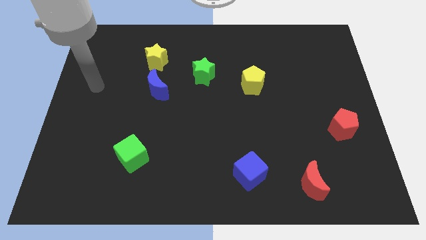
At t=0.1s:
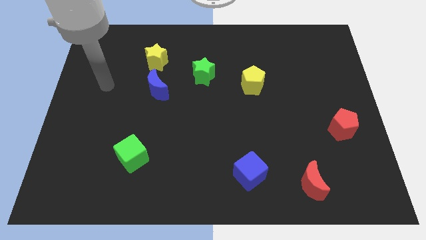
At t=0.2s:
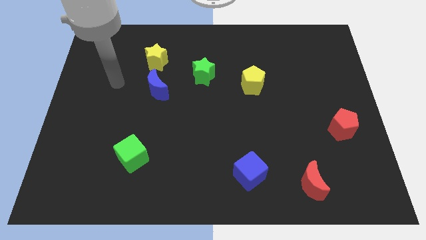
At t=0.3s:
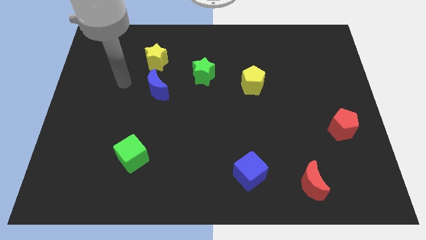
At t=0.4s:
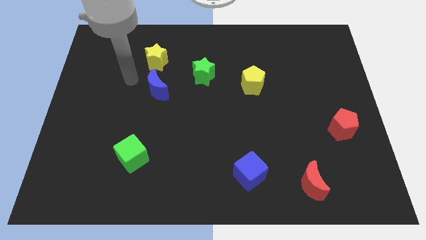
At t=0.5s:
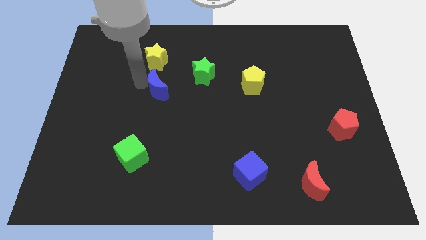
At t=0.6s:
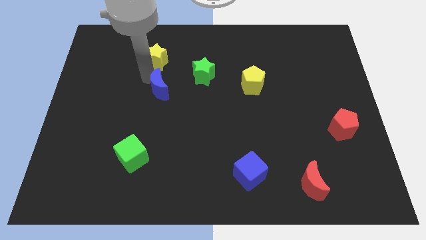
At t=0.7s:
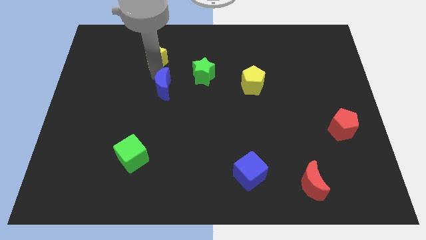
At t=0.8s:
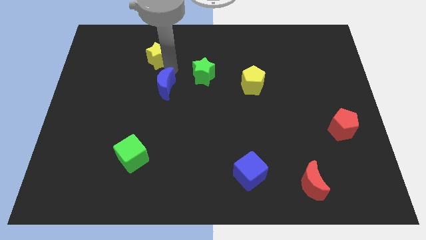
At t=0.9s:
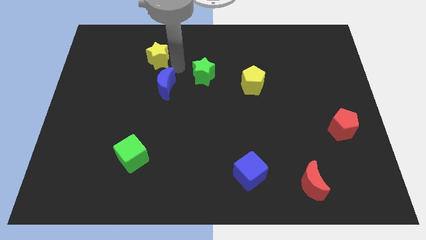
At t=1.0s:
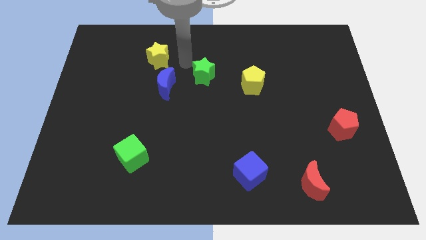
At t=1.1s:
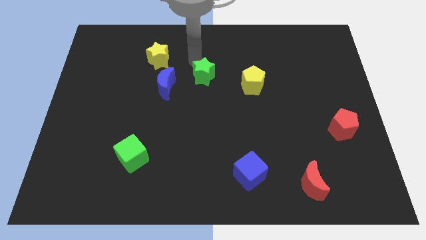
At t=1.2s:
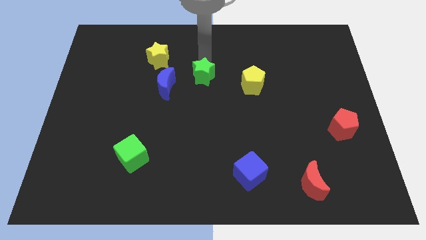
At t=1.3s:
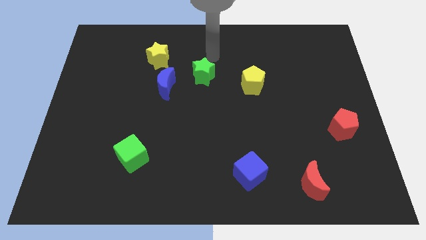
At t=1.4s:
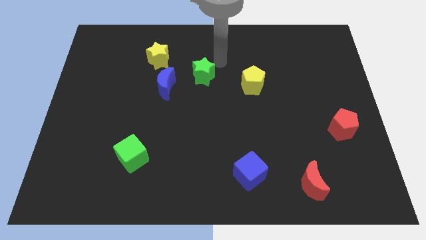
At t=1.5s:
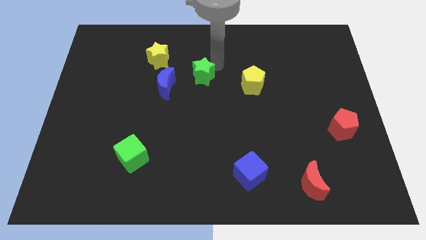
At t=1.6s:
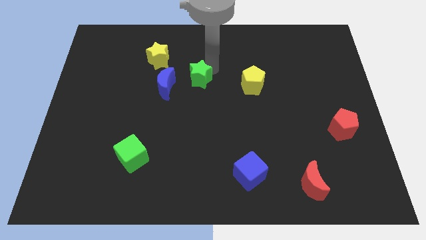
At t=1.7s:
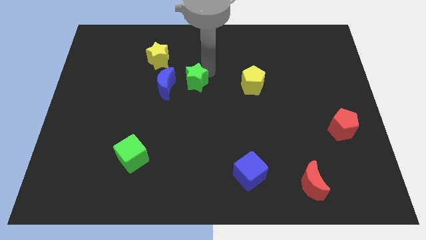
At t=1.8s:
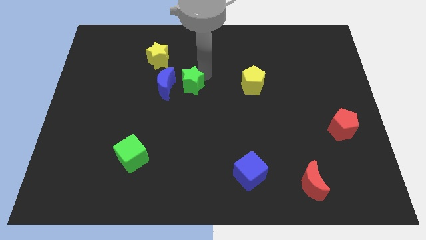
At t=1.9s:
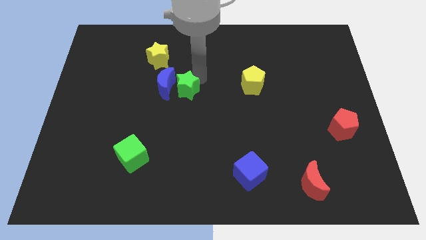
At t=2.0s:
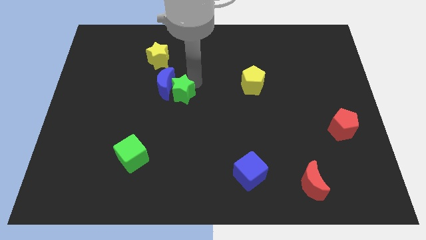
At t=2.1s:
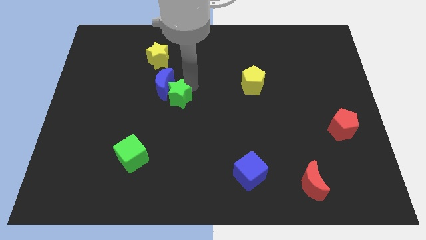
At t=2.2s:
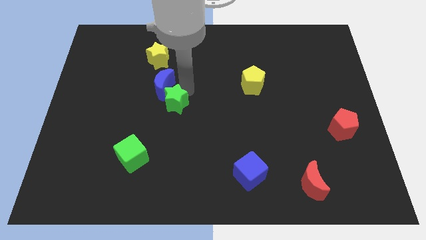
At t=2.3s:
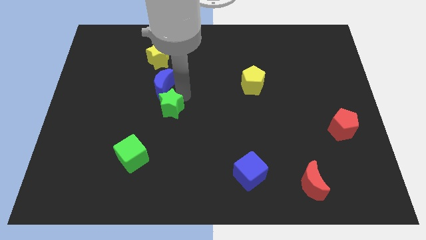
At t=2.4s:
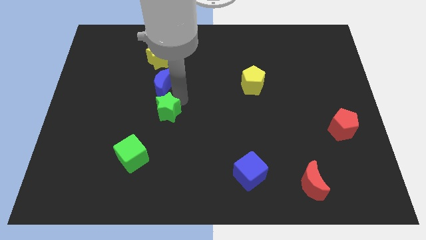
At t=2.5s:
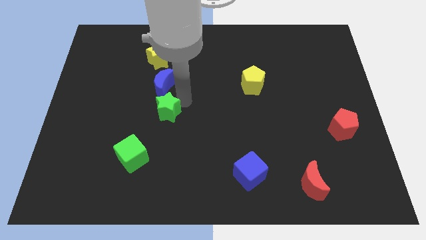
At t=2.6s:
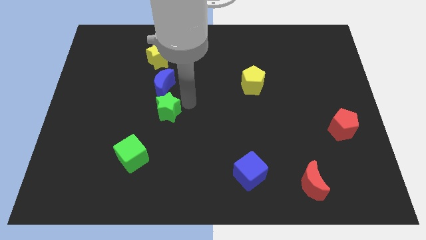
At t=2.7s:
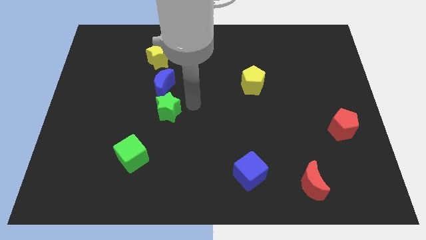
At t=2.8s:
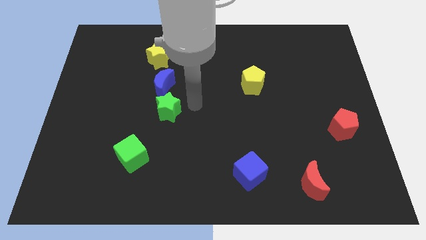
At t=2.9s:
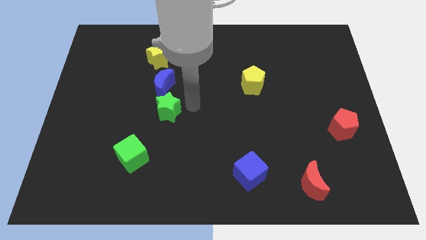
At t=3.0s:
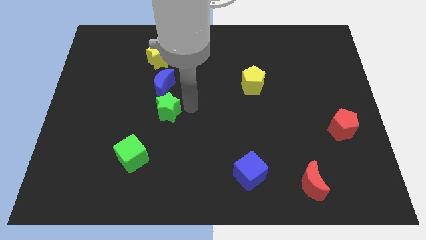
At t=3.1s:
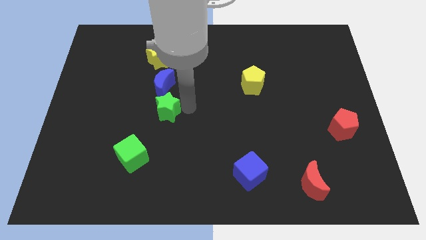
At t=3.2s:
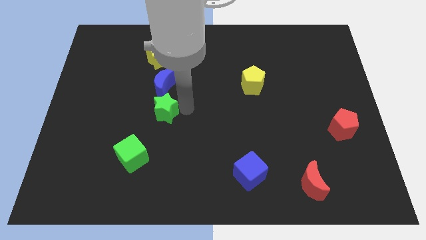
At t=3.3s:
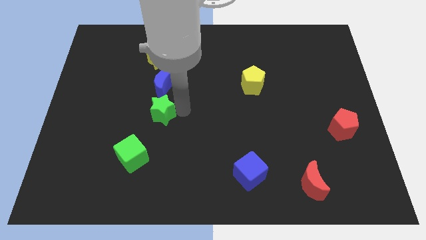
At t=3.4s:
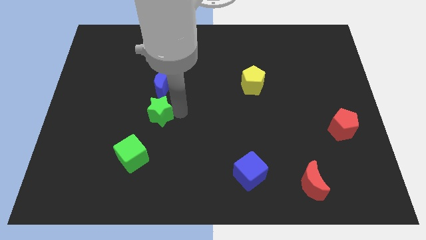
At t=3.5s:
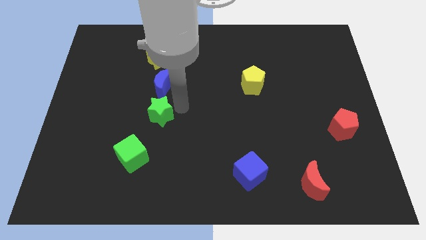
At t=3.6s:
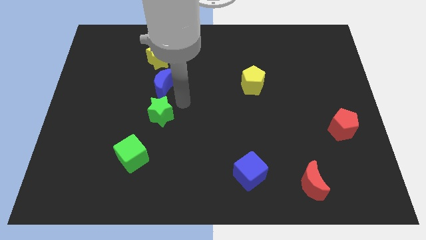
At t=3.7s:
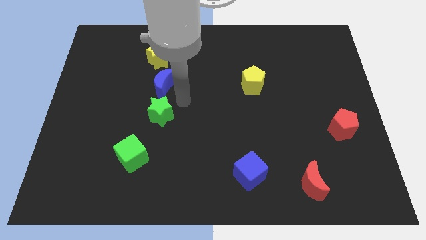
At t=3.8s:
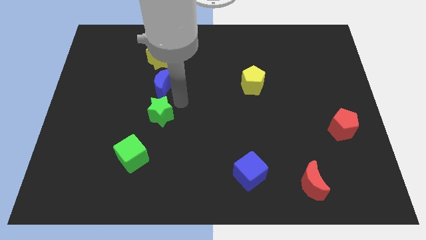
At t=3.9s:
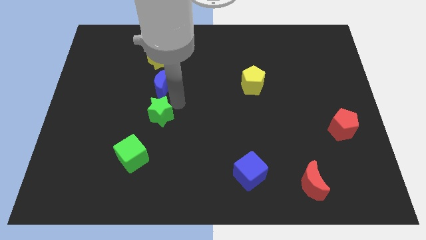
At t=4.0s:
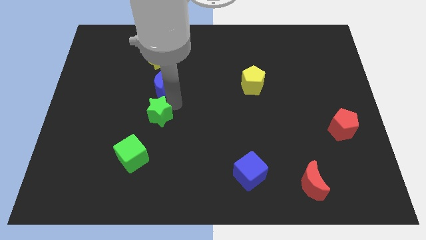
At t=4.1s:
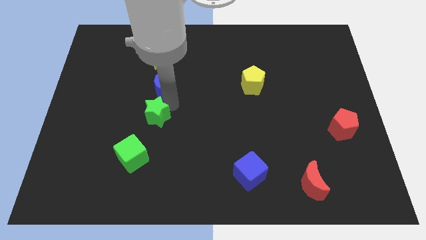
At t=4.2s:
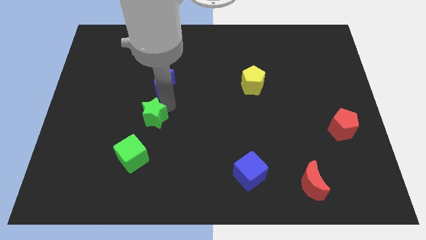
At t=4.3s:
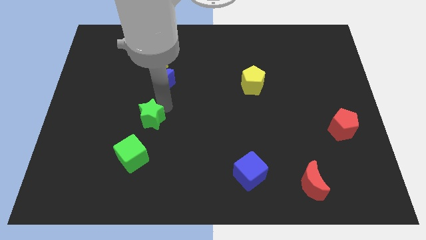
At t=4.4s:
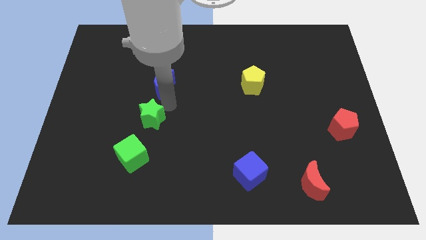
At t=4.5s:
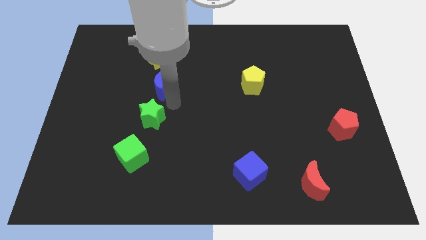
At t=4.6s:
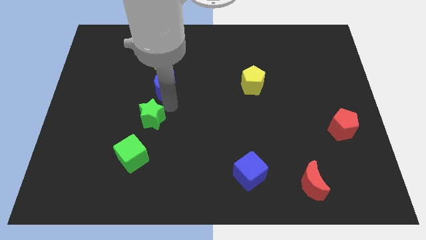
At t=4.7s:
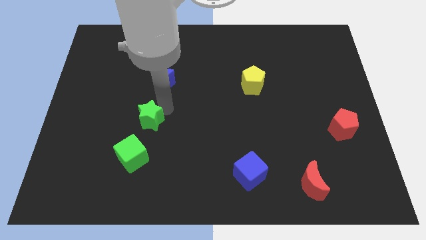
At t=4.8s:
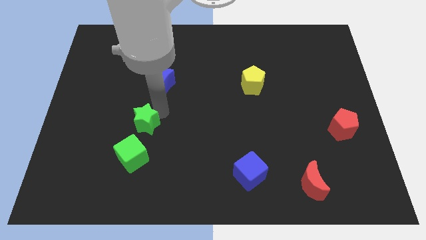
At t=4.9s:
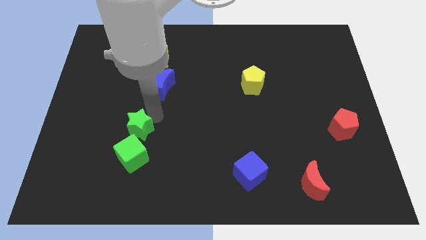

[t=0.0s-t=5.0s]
slide the green star downwards and left diagonally

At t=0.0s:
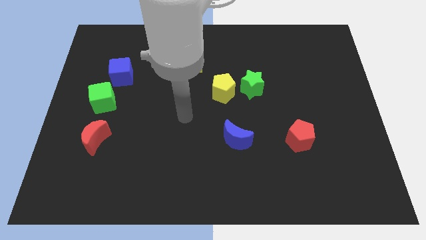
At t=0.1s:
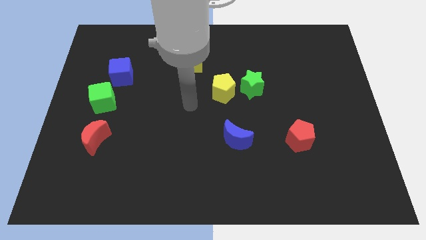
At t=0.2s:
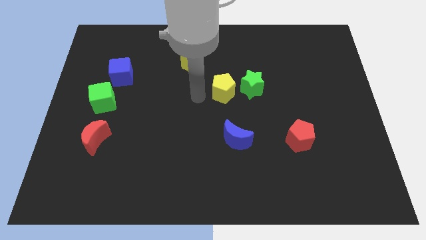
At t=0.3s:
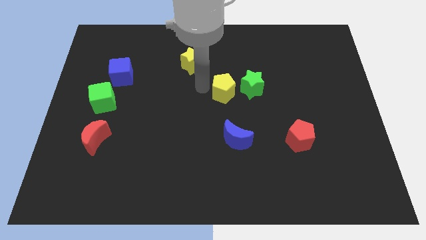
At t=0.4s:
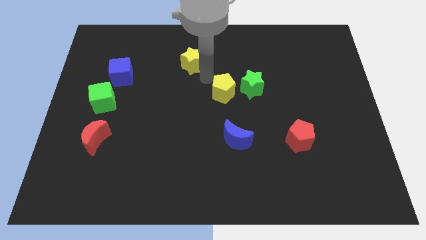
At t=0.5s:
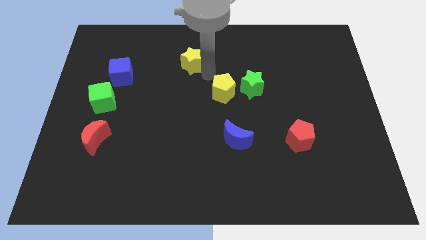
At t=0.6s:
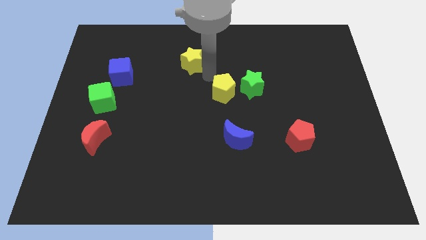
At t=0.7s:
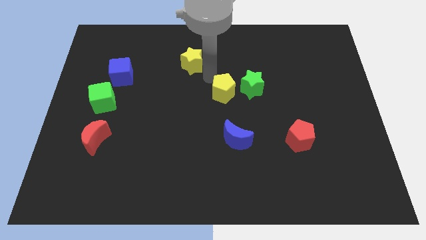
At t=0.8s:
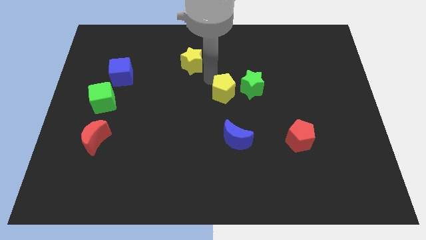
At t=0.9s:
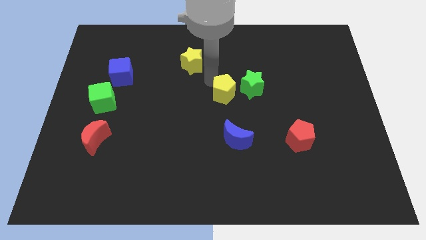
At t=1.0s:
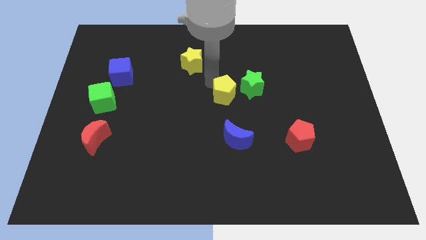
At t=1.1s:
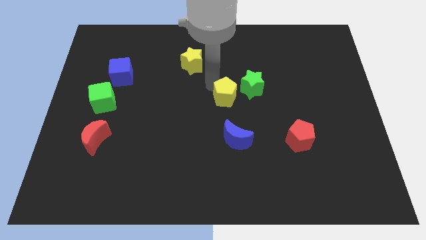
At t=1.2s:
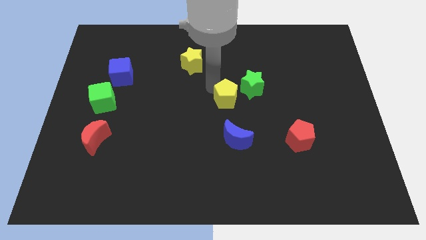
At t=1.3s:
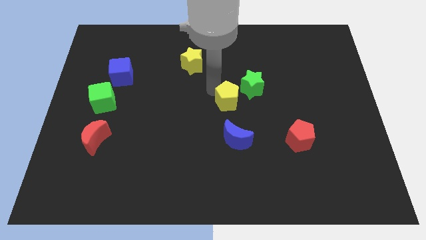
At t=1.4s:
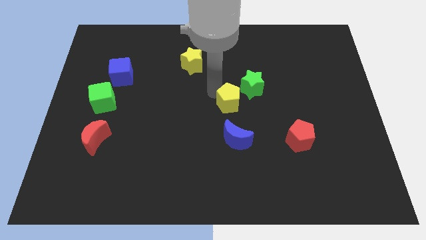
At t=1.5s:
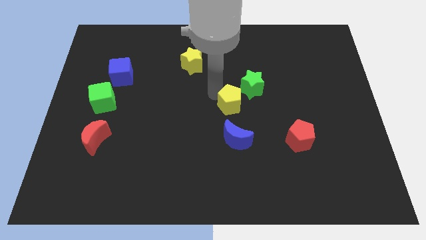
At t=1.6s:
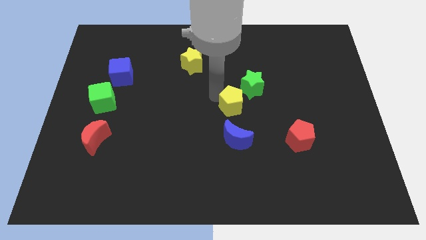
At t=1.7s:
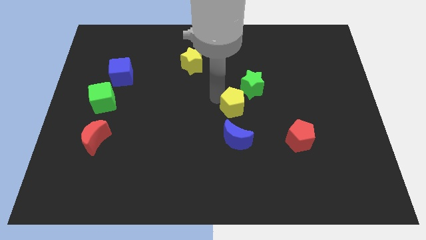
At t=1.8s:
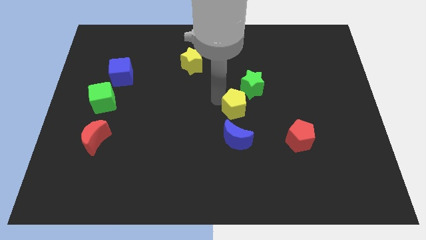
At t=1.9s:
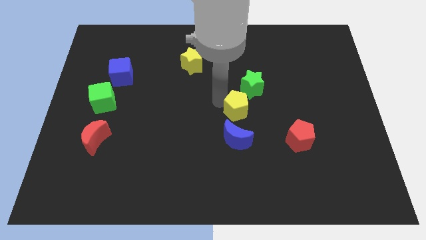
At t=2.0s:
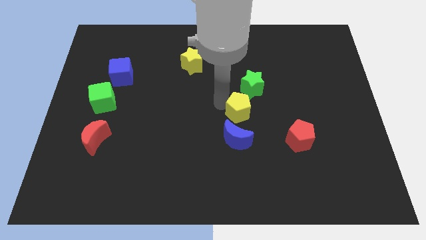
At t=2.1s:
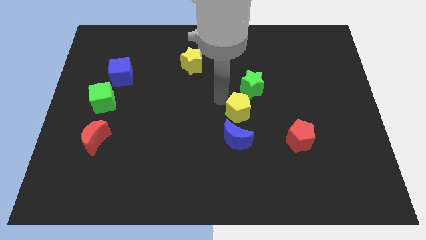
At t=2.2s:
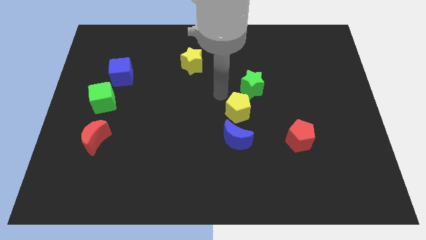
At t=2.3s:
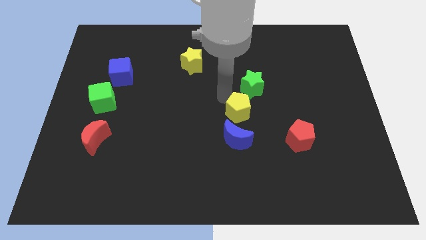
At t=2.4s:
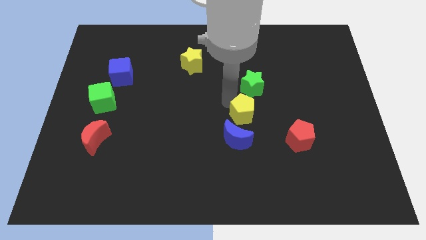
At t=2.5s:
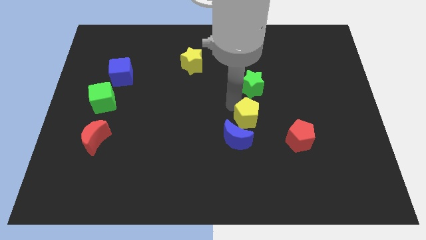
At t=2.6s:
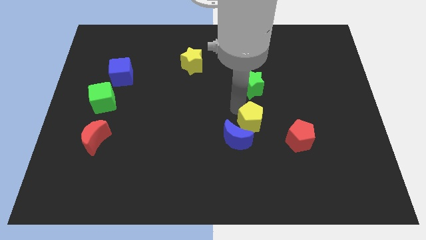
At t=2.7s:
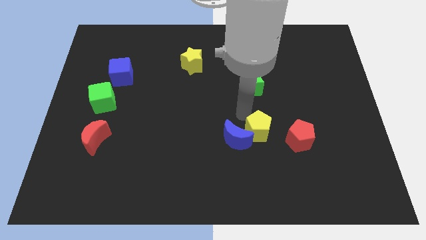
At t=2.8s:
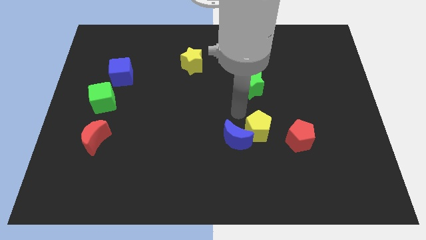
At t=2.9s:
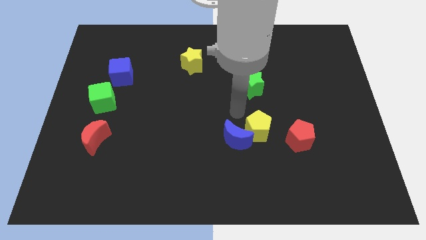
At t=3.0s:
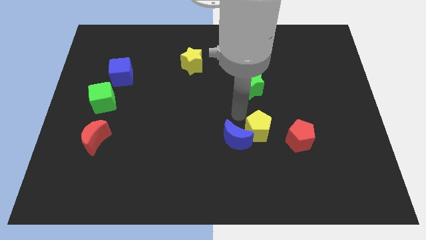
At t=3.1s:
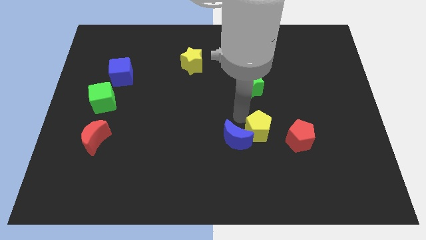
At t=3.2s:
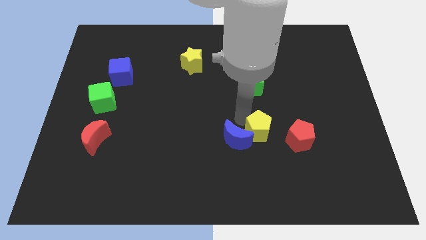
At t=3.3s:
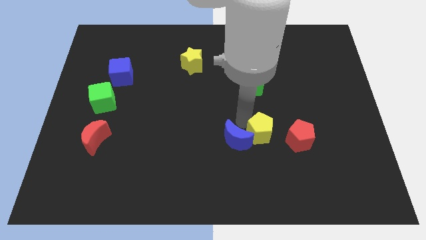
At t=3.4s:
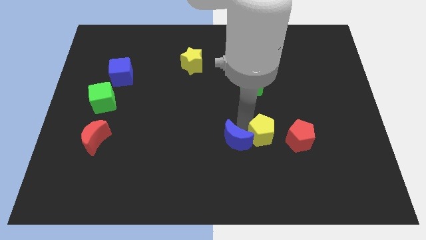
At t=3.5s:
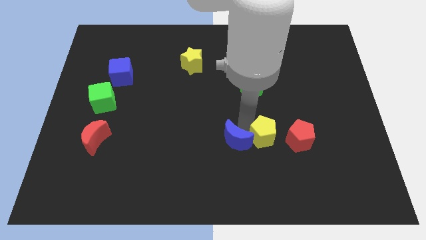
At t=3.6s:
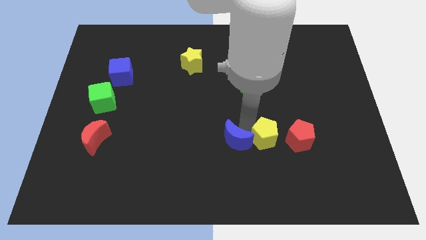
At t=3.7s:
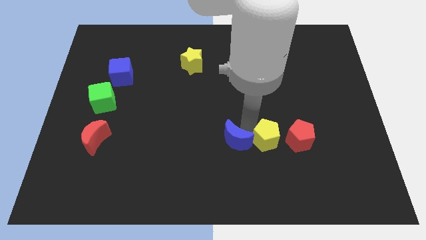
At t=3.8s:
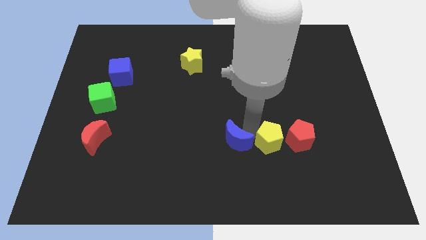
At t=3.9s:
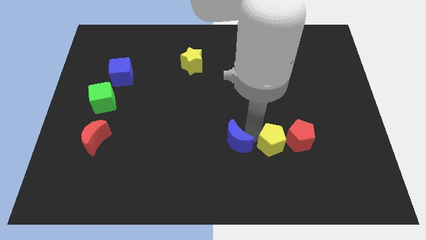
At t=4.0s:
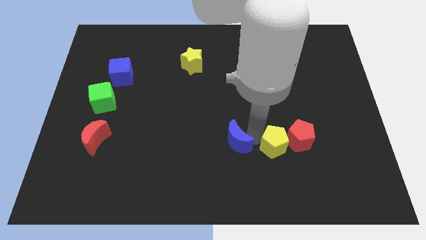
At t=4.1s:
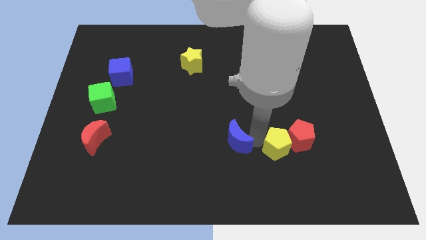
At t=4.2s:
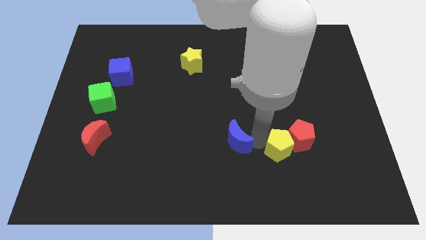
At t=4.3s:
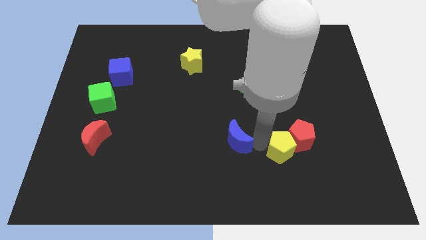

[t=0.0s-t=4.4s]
slide the yellow pentagon downwards and right diagonally
